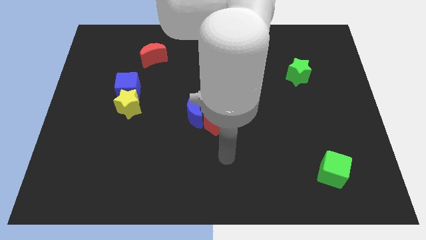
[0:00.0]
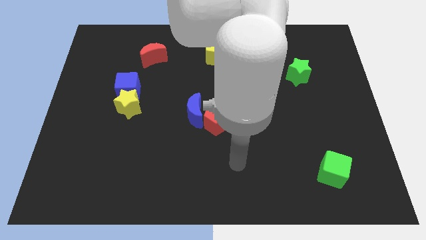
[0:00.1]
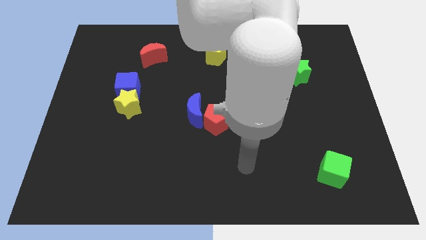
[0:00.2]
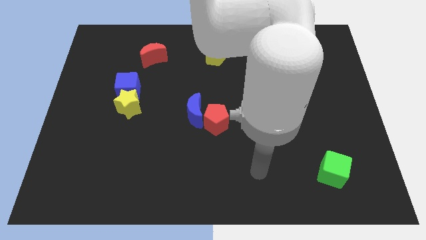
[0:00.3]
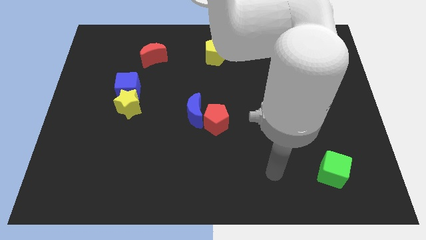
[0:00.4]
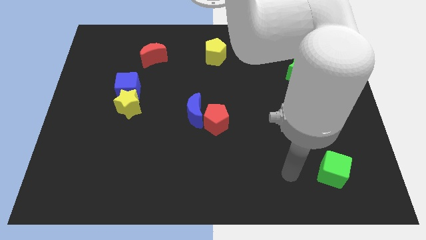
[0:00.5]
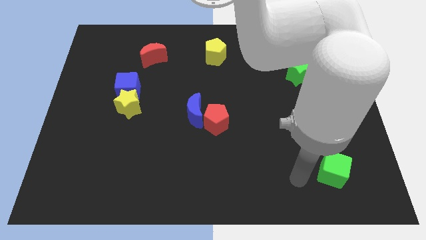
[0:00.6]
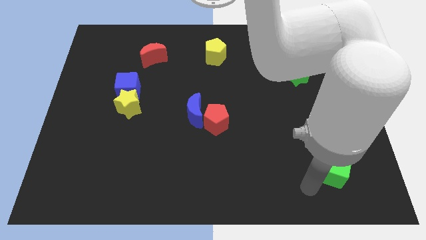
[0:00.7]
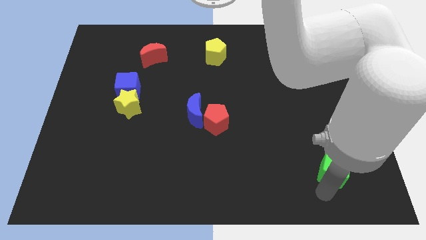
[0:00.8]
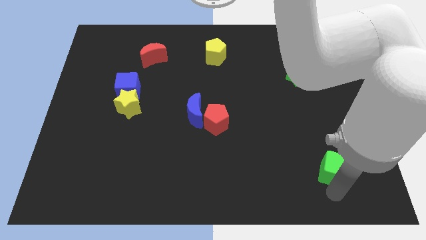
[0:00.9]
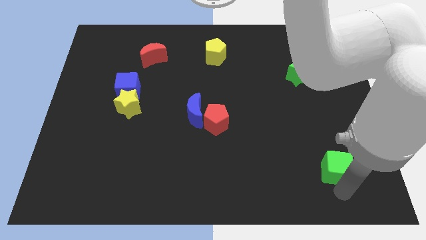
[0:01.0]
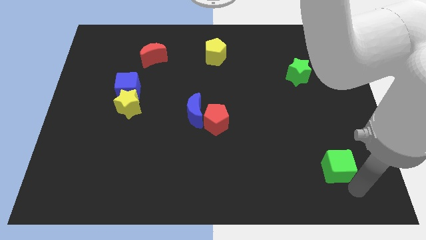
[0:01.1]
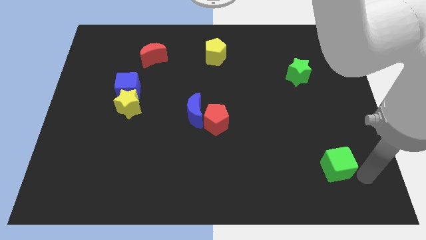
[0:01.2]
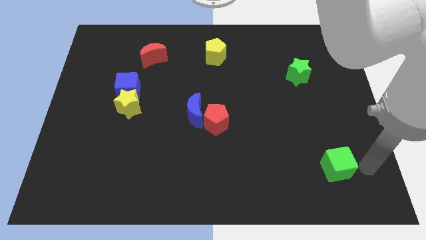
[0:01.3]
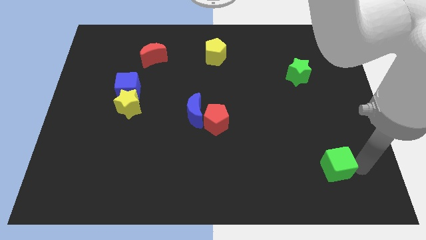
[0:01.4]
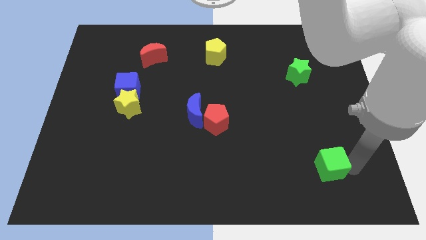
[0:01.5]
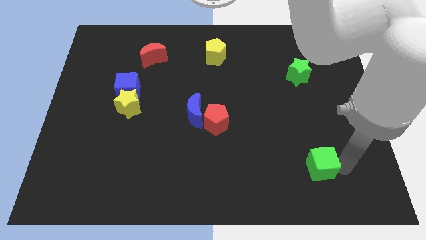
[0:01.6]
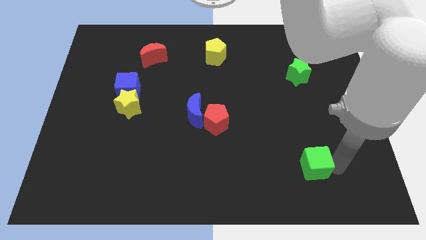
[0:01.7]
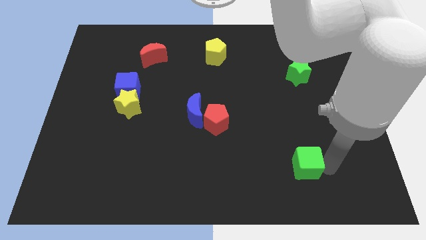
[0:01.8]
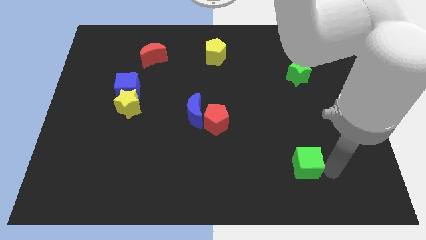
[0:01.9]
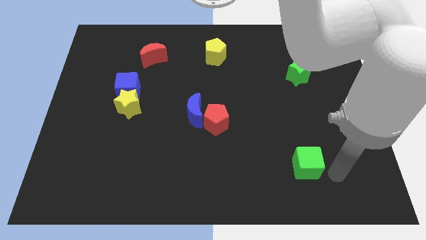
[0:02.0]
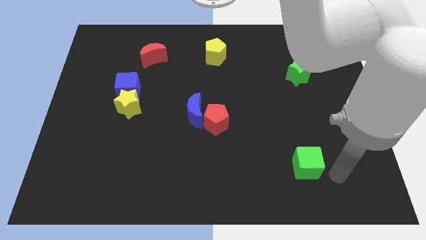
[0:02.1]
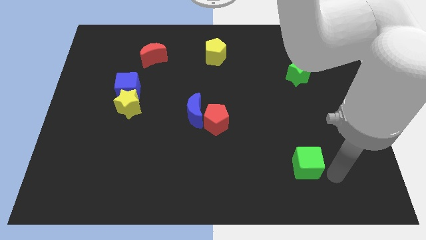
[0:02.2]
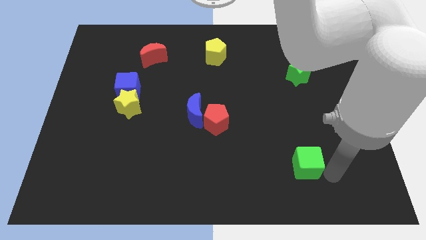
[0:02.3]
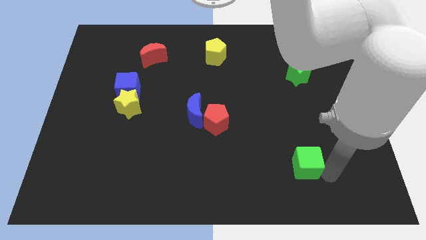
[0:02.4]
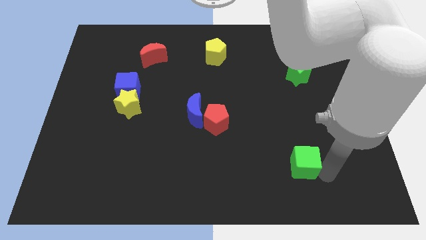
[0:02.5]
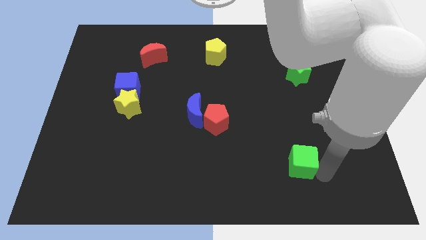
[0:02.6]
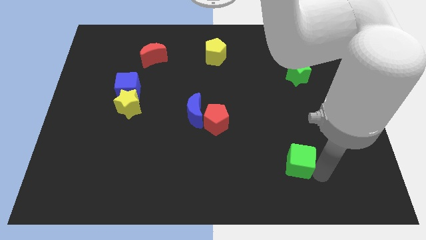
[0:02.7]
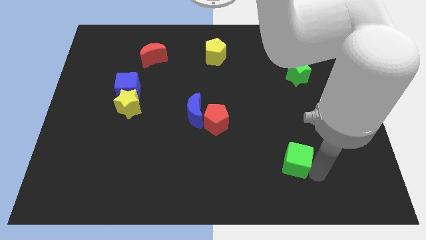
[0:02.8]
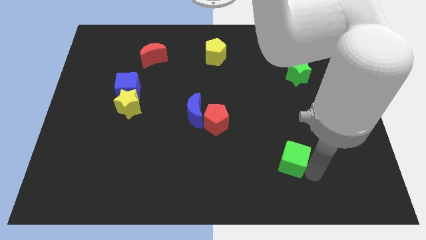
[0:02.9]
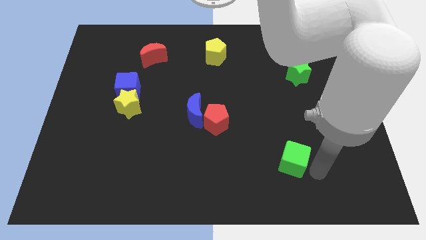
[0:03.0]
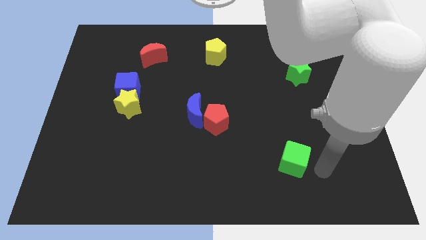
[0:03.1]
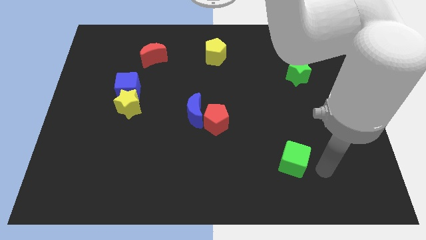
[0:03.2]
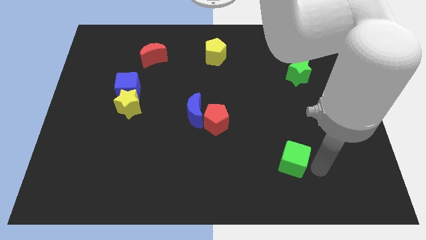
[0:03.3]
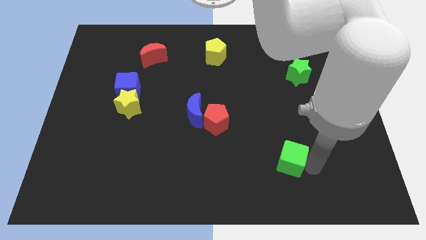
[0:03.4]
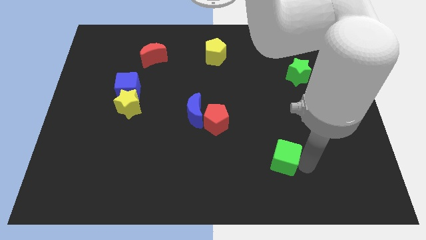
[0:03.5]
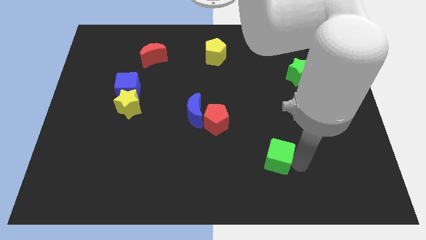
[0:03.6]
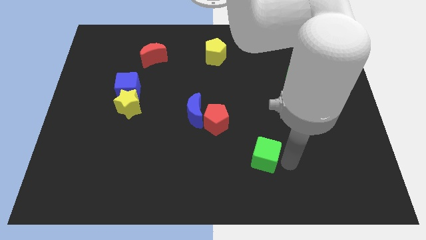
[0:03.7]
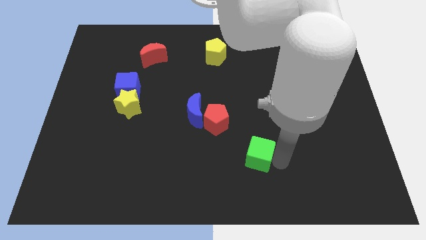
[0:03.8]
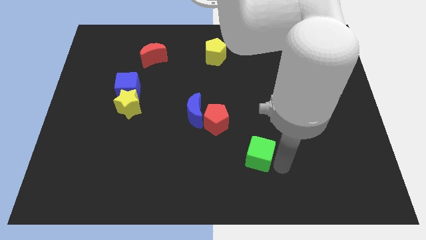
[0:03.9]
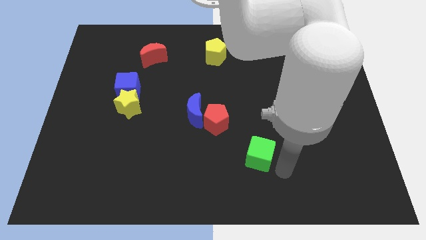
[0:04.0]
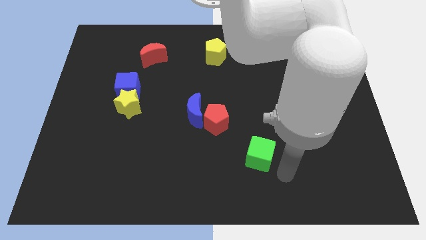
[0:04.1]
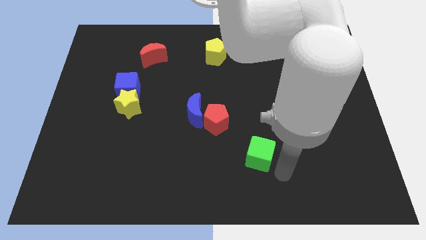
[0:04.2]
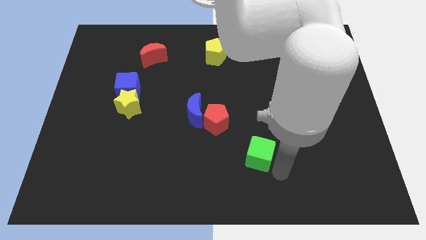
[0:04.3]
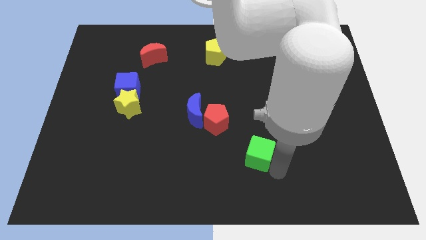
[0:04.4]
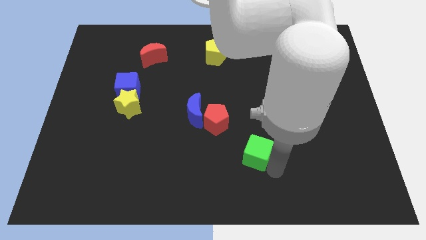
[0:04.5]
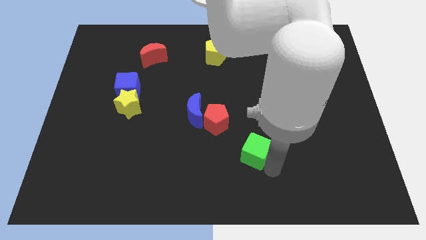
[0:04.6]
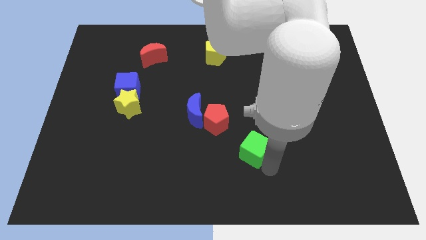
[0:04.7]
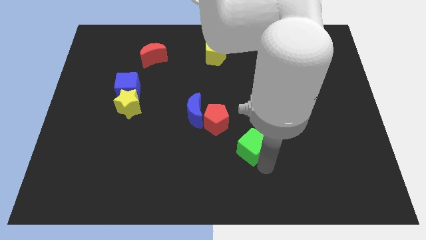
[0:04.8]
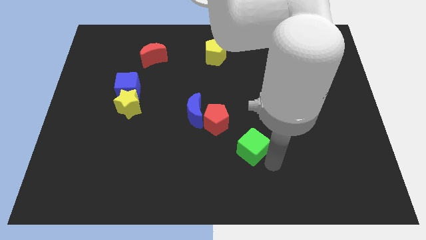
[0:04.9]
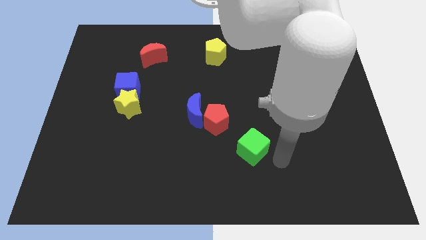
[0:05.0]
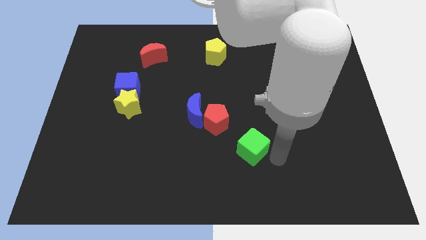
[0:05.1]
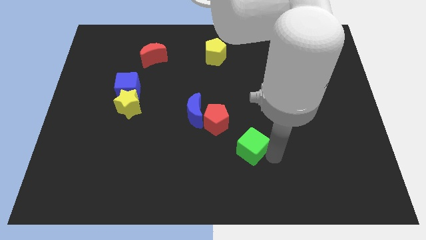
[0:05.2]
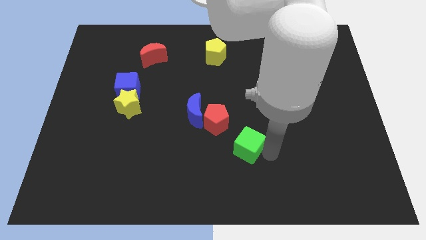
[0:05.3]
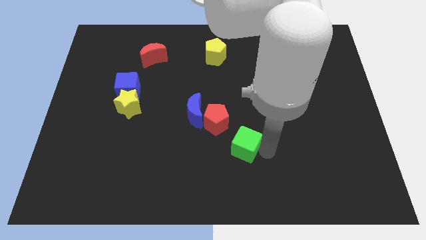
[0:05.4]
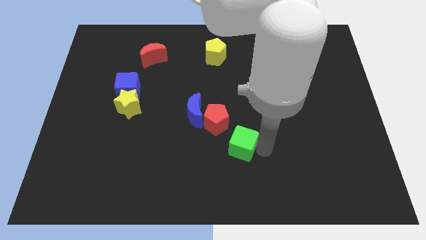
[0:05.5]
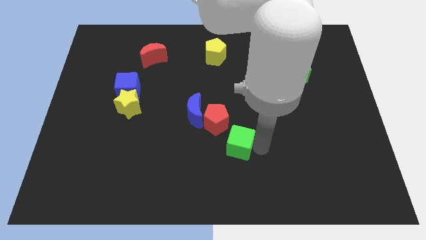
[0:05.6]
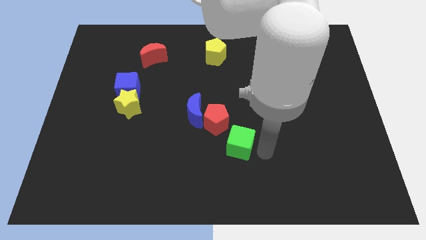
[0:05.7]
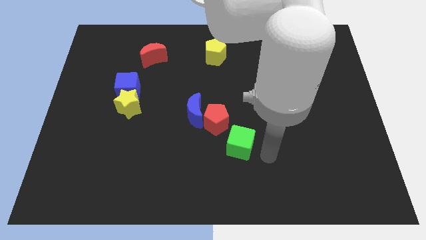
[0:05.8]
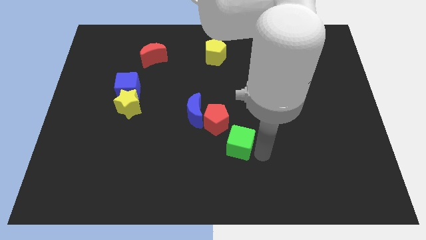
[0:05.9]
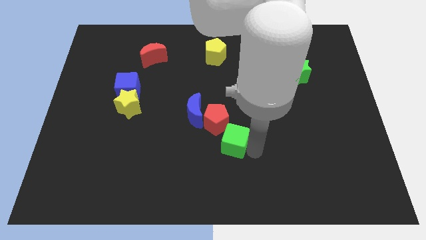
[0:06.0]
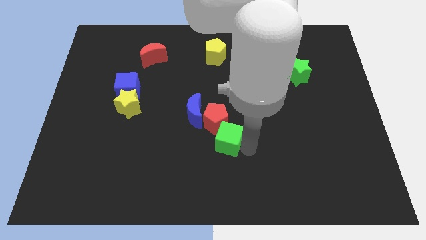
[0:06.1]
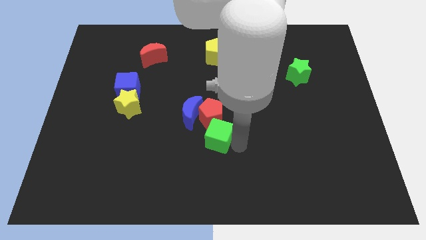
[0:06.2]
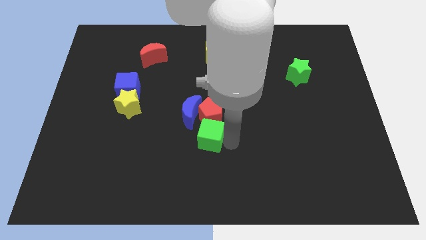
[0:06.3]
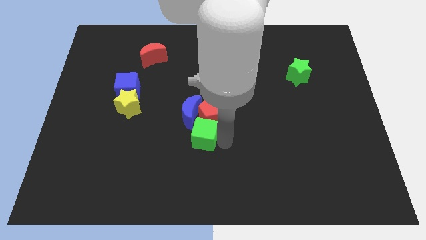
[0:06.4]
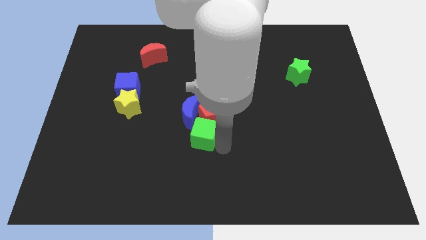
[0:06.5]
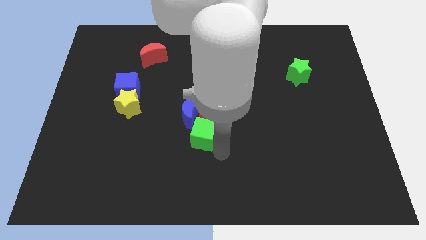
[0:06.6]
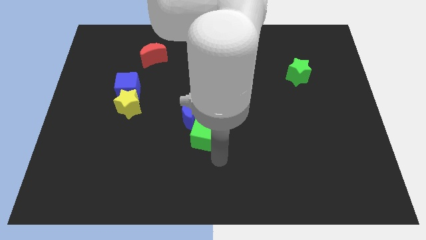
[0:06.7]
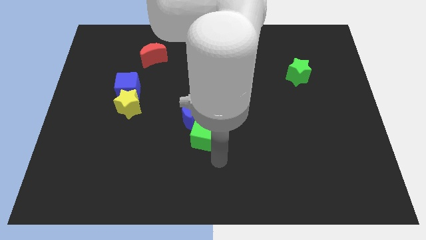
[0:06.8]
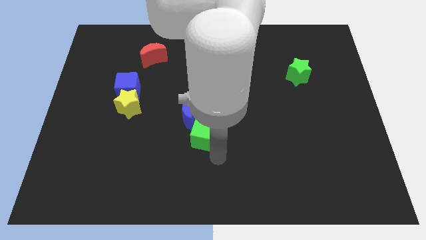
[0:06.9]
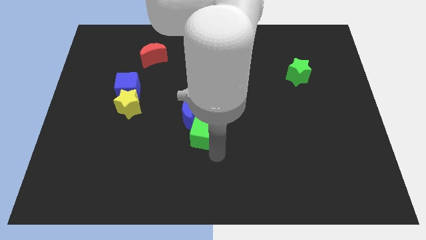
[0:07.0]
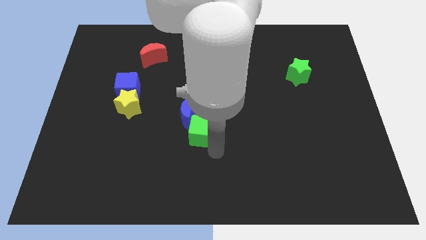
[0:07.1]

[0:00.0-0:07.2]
slide the green cube towards the blue moon
